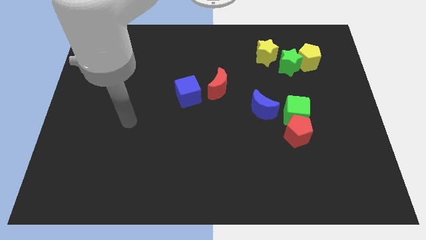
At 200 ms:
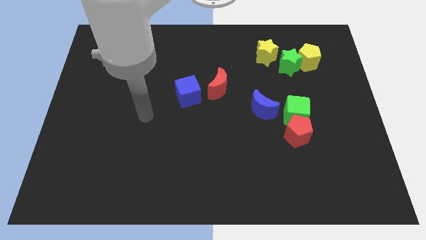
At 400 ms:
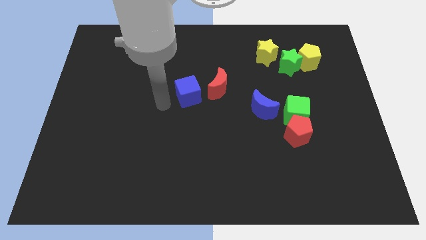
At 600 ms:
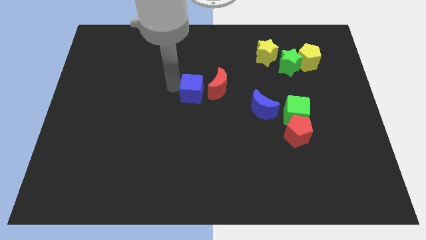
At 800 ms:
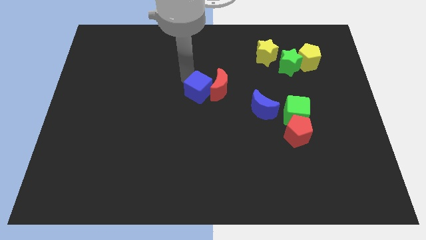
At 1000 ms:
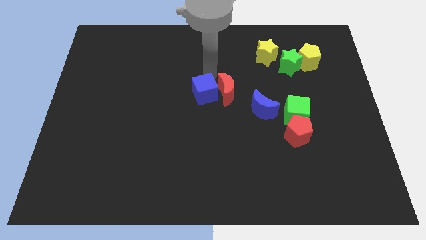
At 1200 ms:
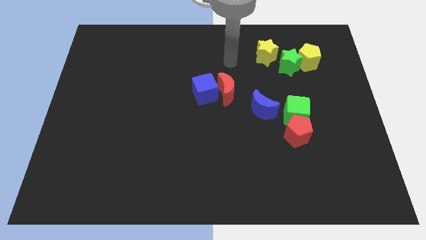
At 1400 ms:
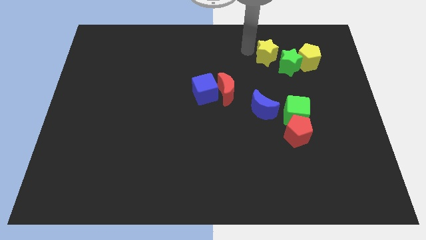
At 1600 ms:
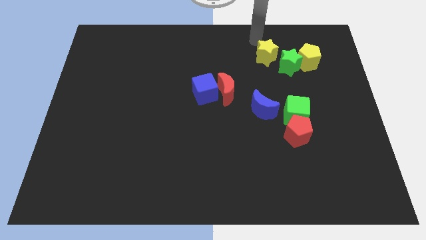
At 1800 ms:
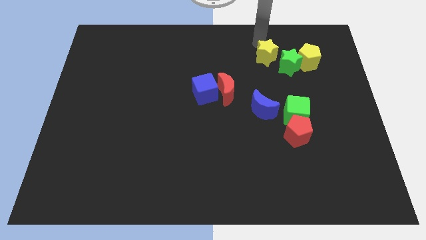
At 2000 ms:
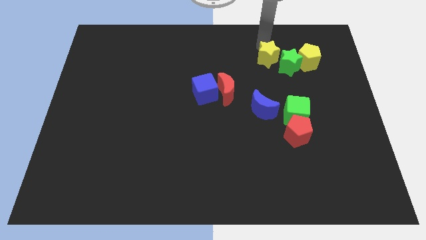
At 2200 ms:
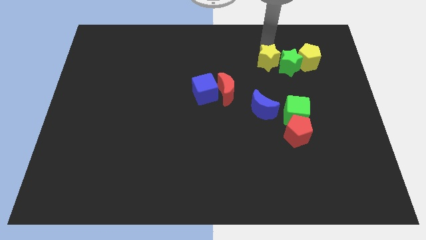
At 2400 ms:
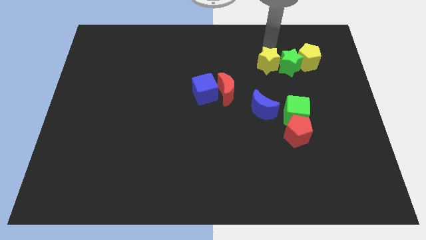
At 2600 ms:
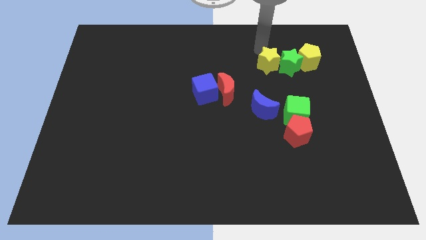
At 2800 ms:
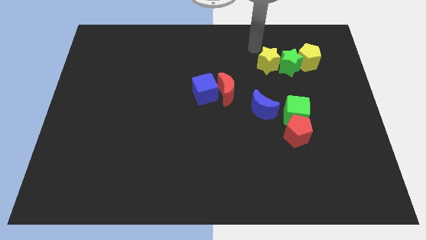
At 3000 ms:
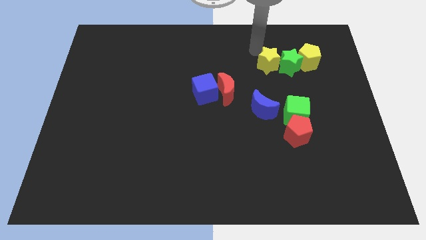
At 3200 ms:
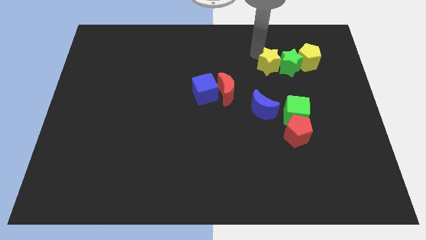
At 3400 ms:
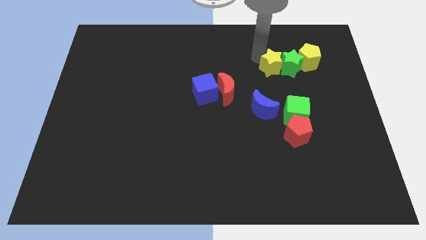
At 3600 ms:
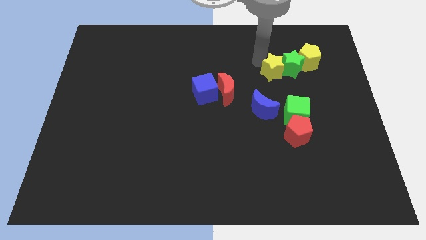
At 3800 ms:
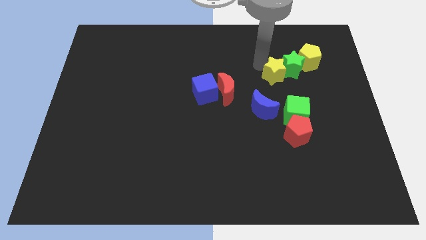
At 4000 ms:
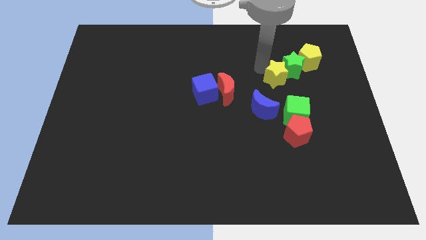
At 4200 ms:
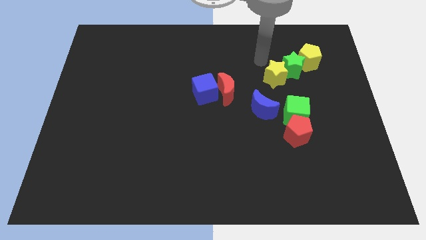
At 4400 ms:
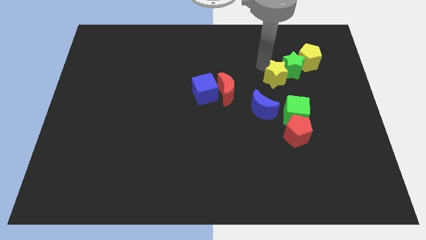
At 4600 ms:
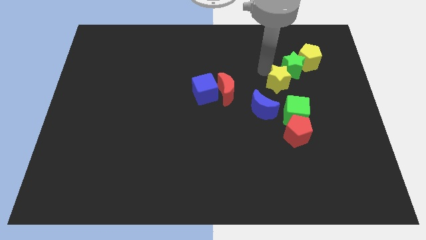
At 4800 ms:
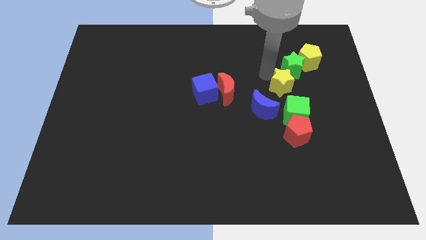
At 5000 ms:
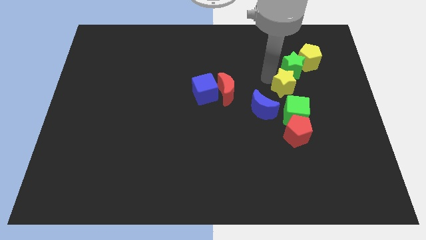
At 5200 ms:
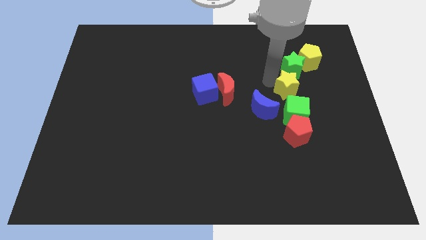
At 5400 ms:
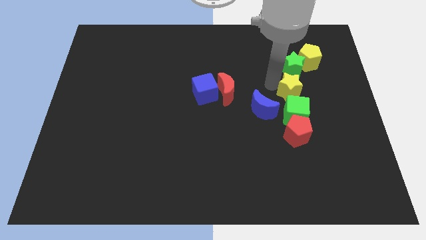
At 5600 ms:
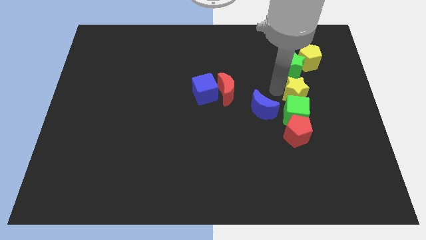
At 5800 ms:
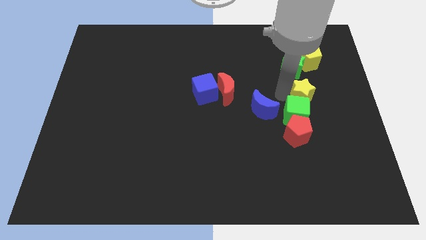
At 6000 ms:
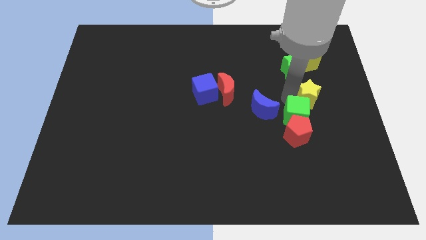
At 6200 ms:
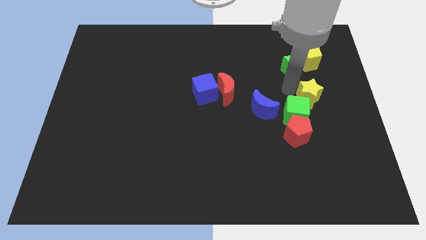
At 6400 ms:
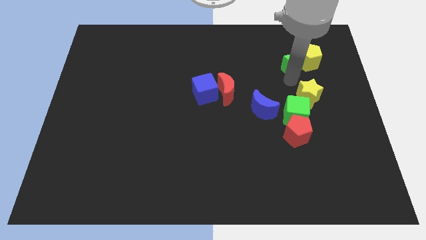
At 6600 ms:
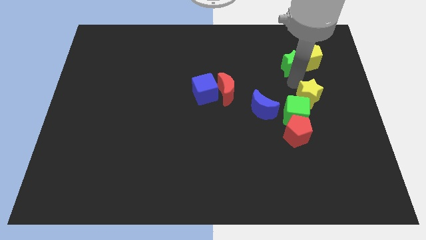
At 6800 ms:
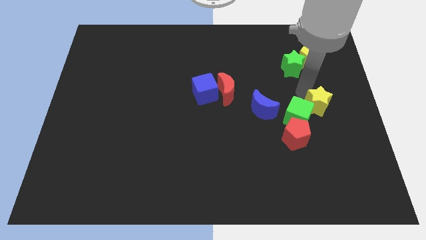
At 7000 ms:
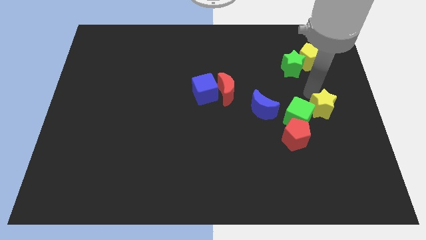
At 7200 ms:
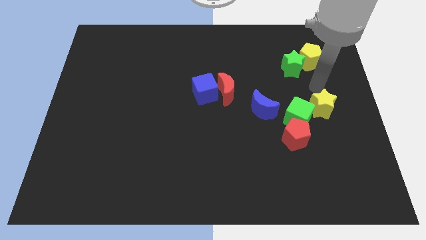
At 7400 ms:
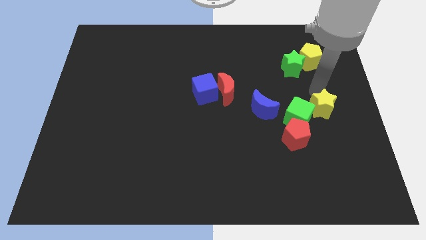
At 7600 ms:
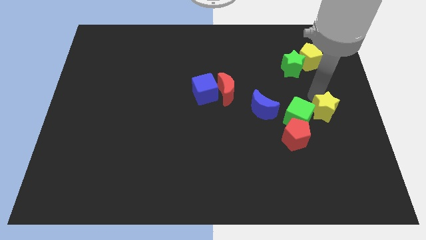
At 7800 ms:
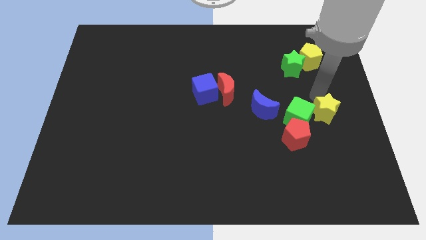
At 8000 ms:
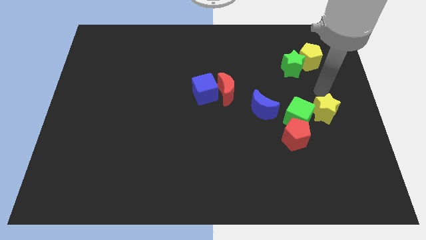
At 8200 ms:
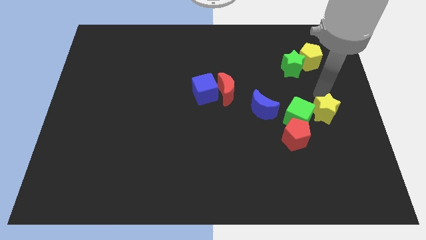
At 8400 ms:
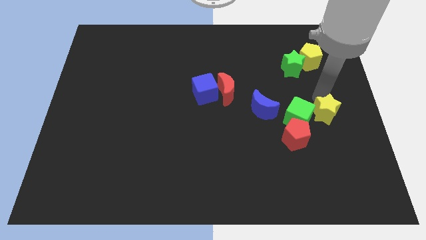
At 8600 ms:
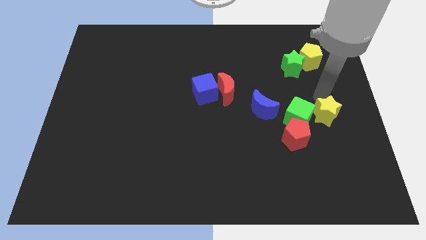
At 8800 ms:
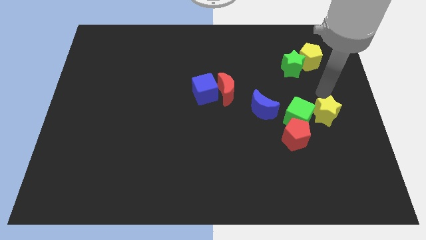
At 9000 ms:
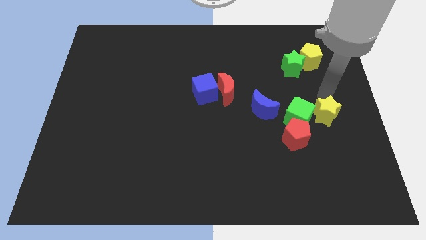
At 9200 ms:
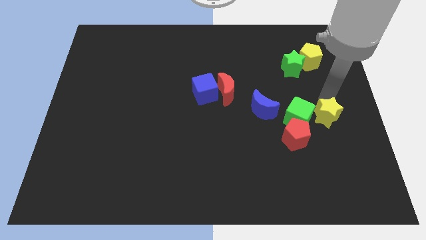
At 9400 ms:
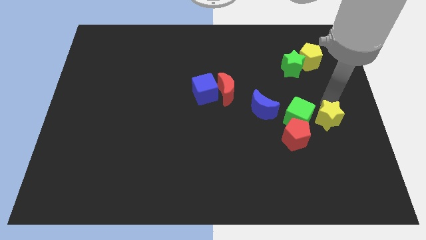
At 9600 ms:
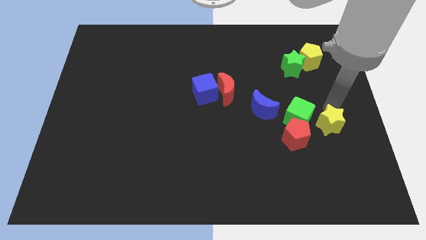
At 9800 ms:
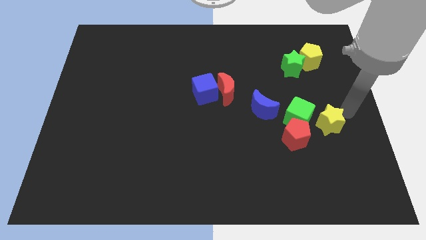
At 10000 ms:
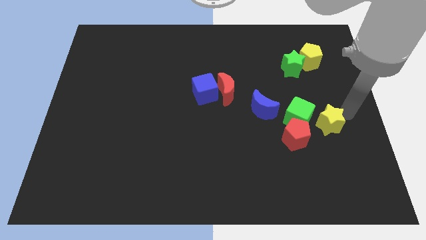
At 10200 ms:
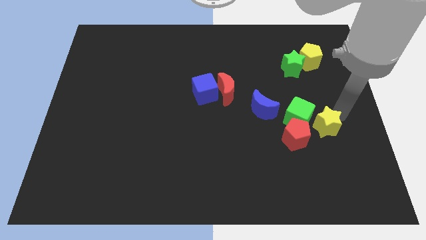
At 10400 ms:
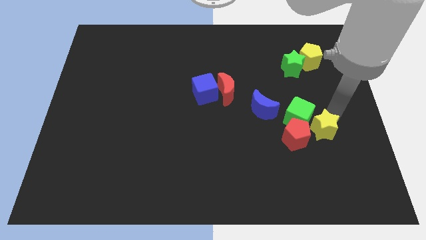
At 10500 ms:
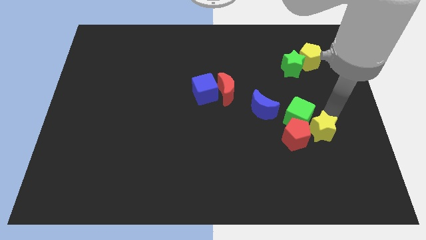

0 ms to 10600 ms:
slide the yellow star next to the red pentagon

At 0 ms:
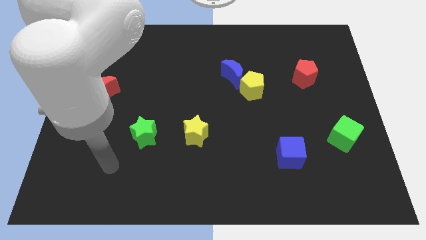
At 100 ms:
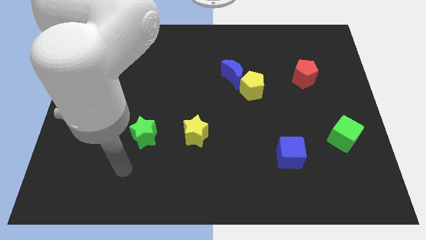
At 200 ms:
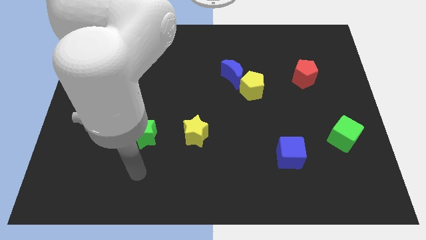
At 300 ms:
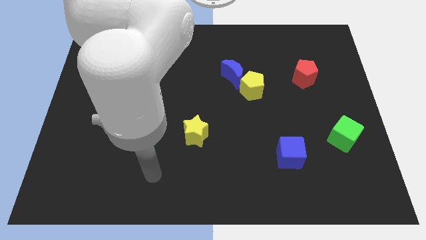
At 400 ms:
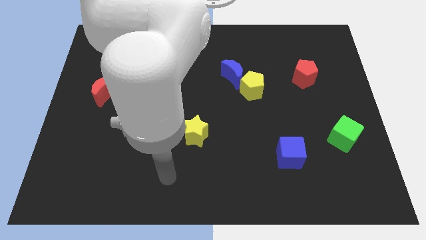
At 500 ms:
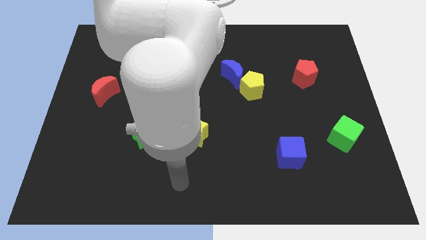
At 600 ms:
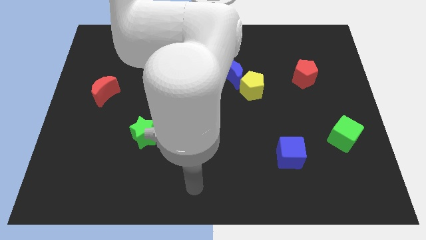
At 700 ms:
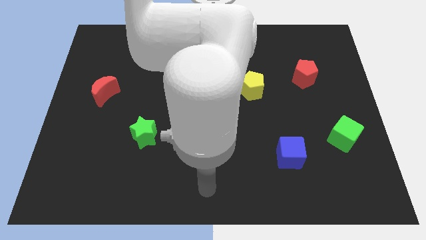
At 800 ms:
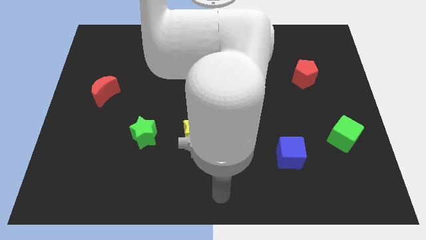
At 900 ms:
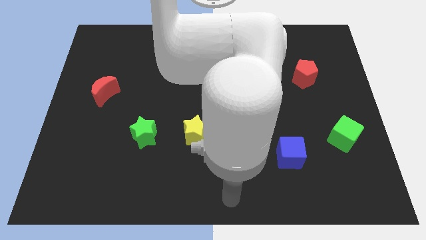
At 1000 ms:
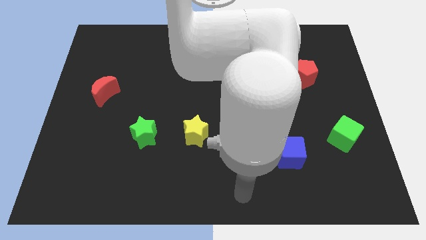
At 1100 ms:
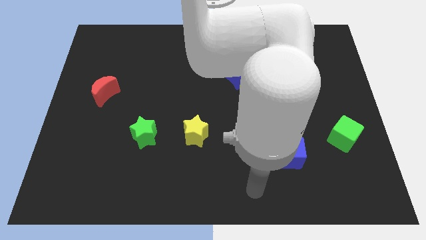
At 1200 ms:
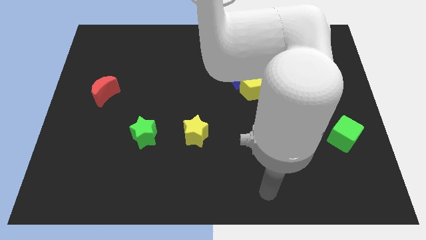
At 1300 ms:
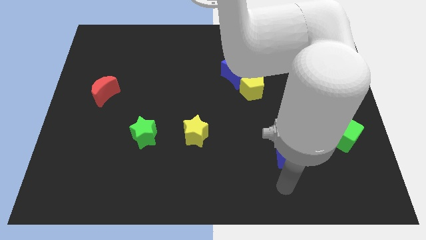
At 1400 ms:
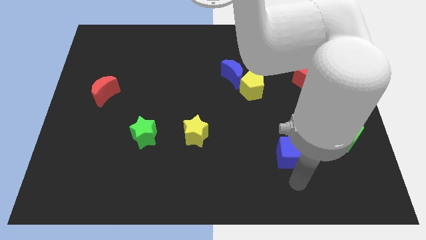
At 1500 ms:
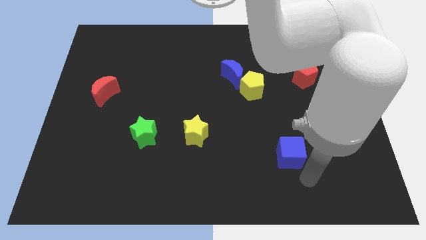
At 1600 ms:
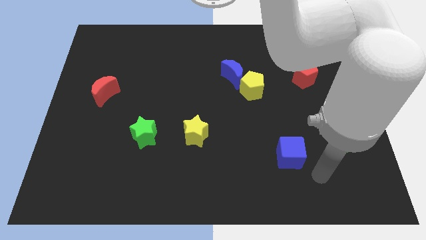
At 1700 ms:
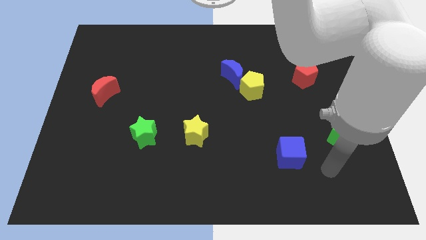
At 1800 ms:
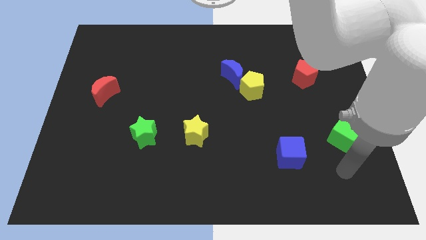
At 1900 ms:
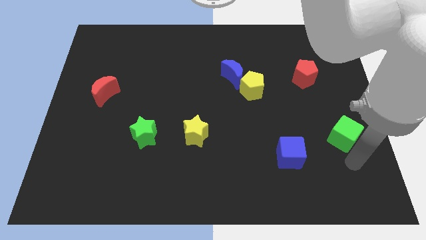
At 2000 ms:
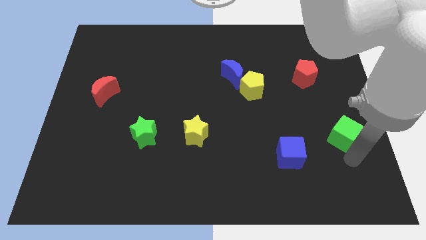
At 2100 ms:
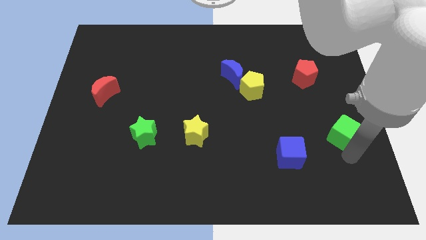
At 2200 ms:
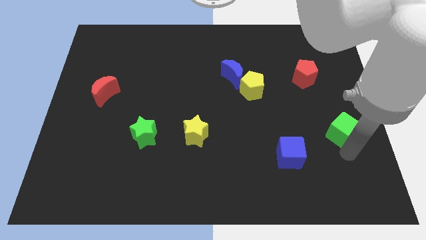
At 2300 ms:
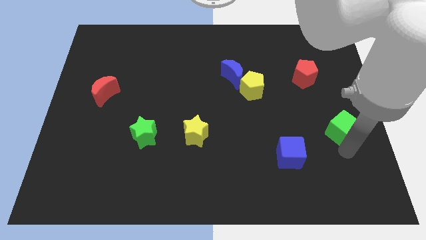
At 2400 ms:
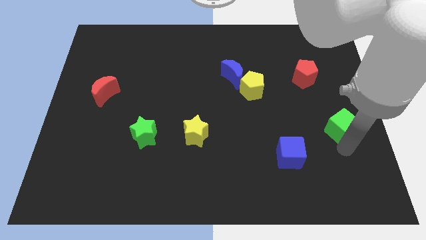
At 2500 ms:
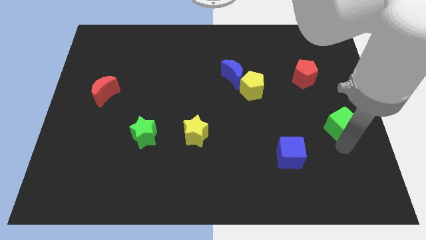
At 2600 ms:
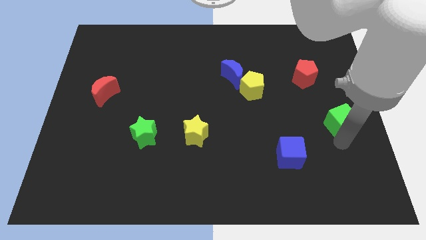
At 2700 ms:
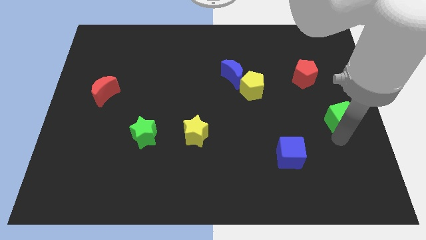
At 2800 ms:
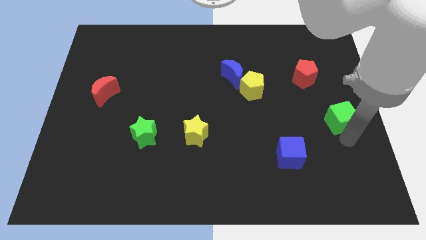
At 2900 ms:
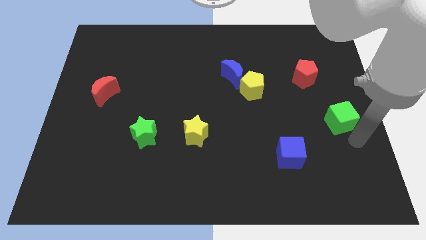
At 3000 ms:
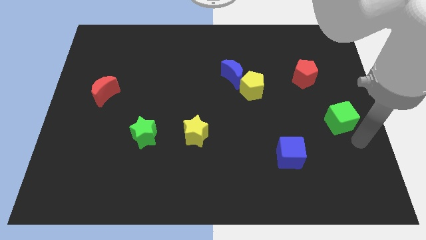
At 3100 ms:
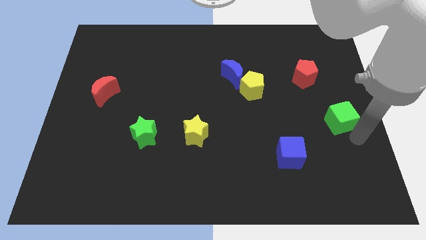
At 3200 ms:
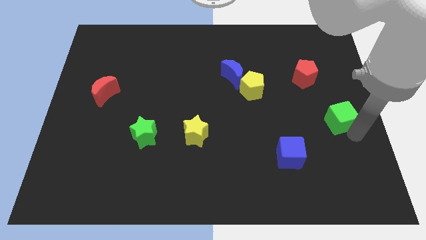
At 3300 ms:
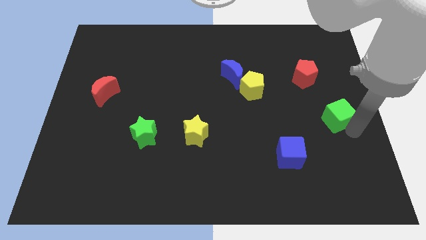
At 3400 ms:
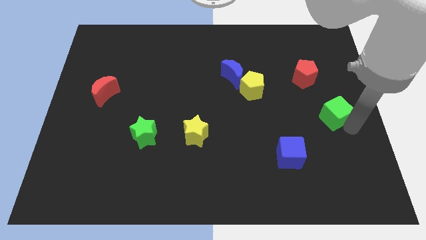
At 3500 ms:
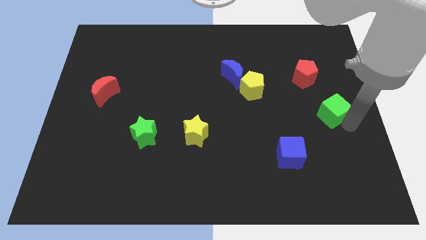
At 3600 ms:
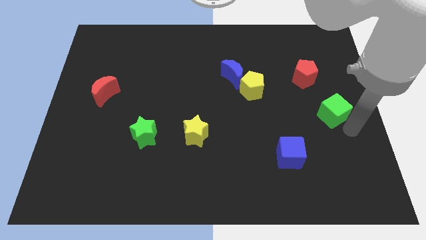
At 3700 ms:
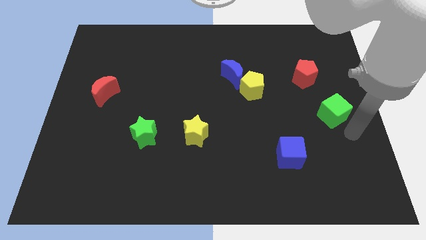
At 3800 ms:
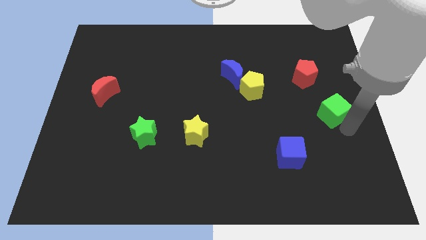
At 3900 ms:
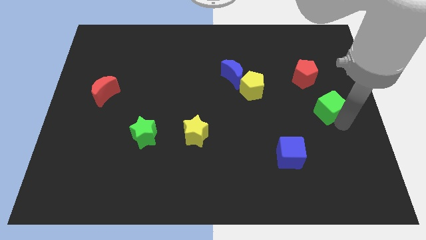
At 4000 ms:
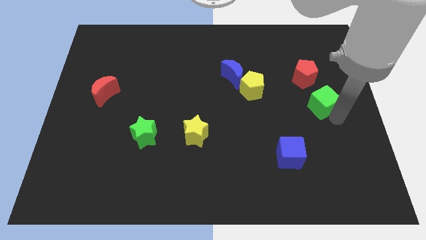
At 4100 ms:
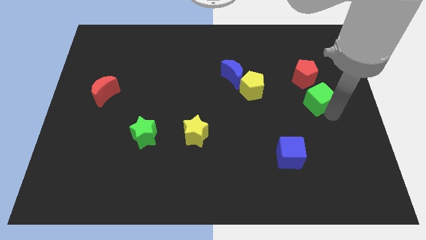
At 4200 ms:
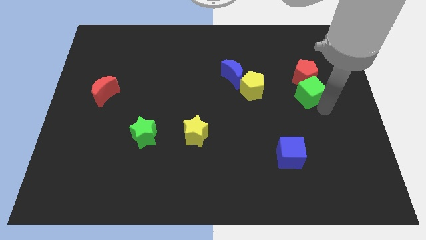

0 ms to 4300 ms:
put the green cube close to the red pentagon
